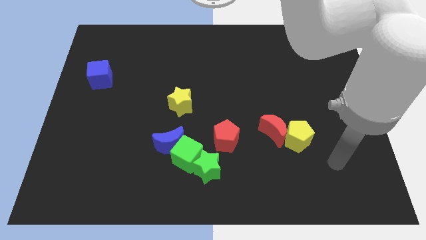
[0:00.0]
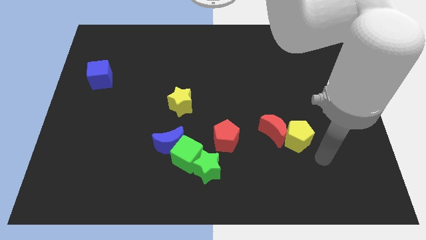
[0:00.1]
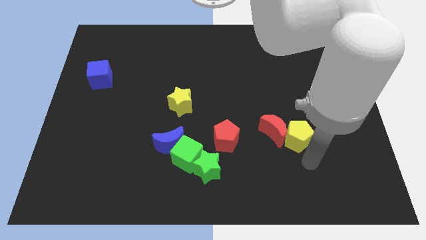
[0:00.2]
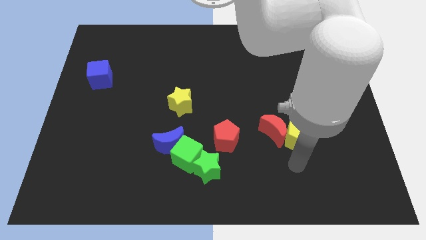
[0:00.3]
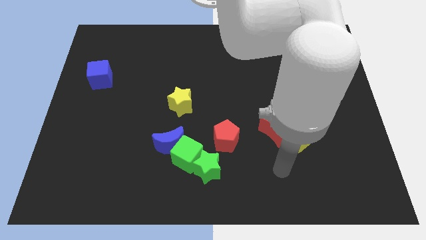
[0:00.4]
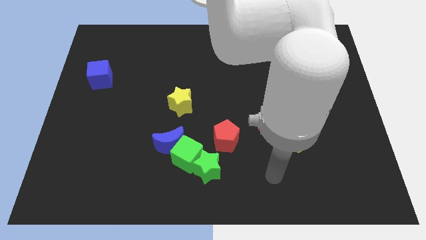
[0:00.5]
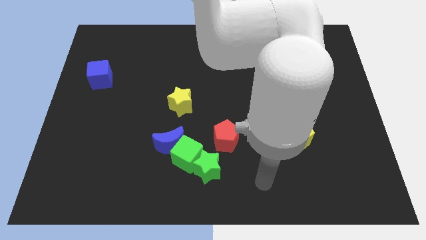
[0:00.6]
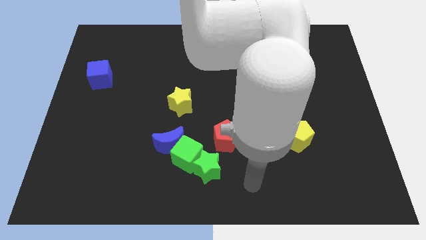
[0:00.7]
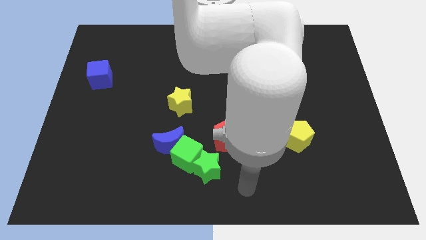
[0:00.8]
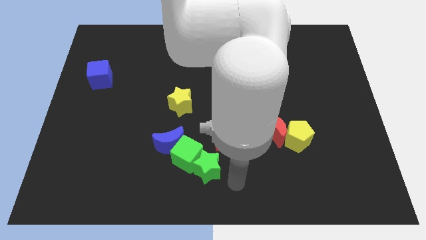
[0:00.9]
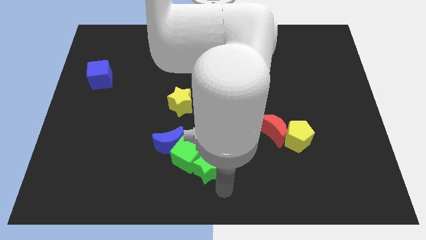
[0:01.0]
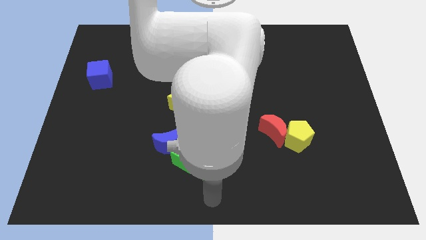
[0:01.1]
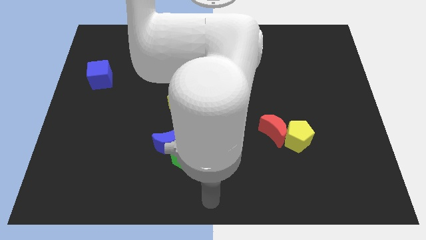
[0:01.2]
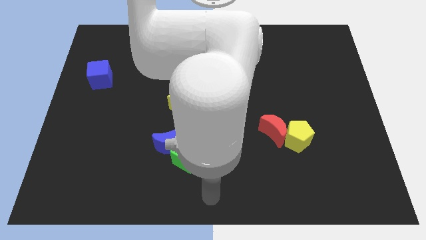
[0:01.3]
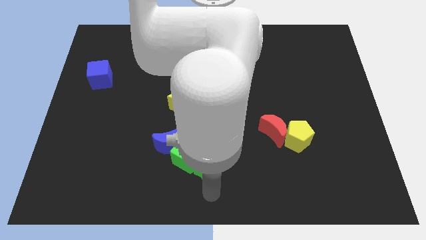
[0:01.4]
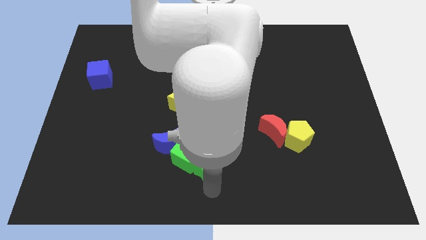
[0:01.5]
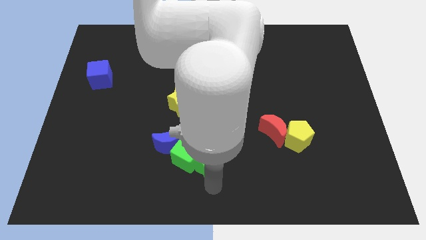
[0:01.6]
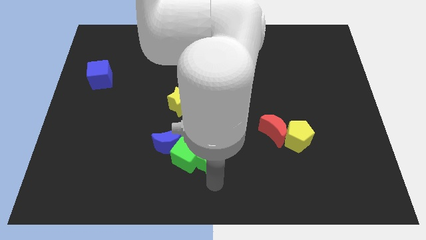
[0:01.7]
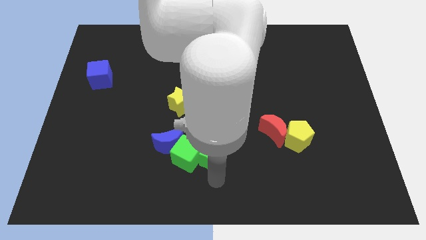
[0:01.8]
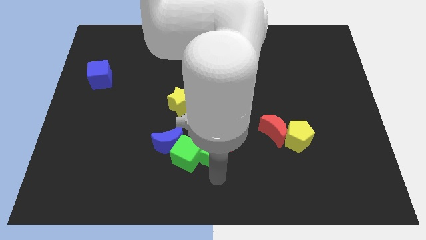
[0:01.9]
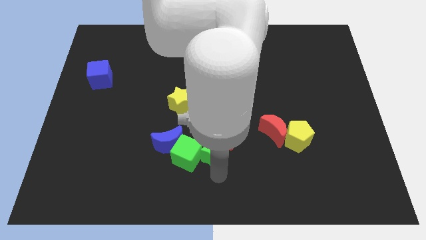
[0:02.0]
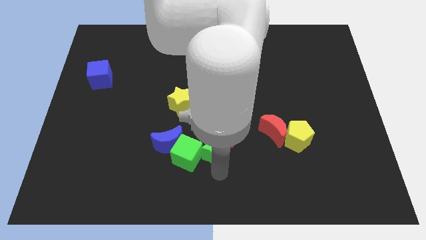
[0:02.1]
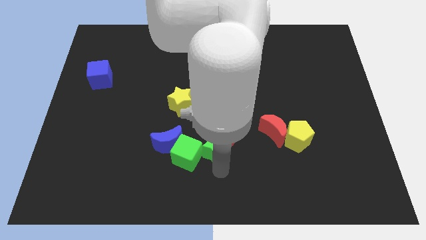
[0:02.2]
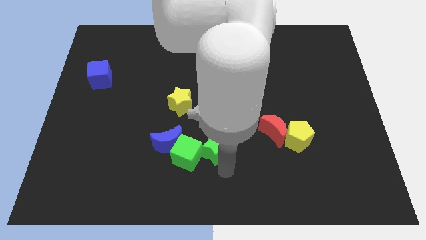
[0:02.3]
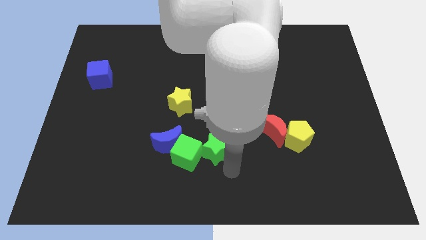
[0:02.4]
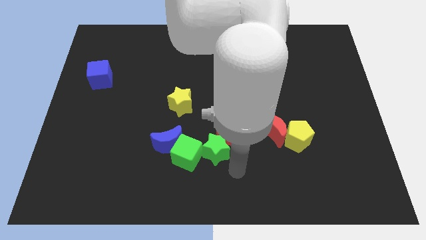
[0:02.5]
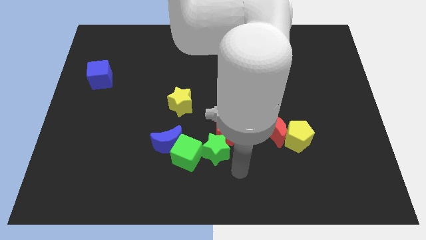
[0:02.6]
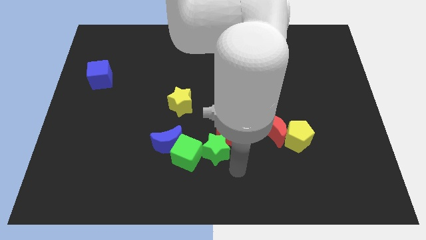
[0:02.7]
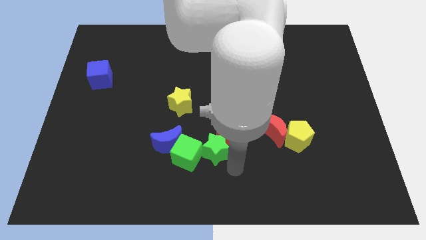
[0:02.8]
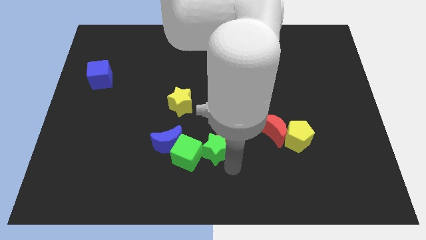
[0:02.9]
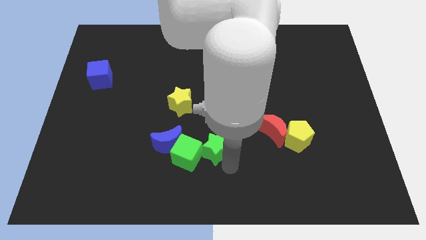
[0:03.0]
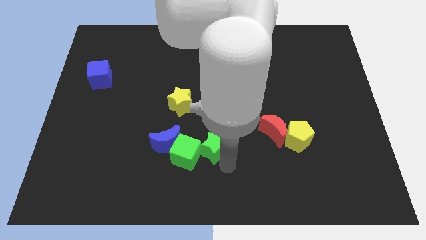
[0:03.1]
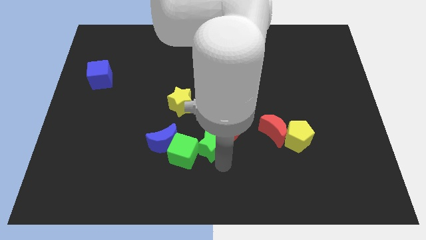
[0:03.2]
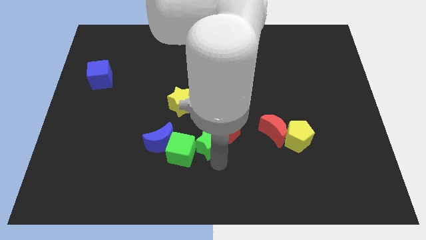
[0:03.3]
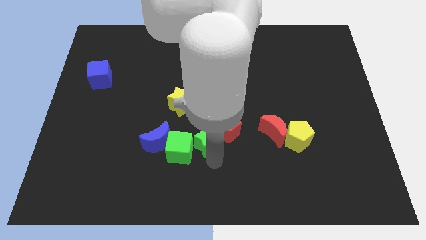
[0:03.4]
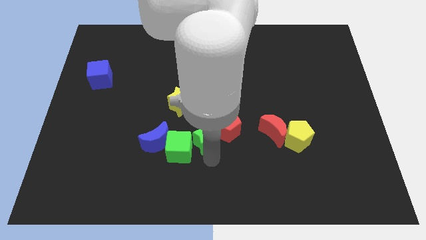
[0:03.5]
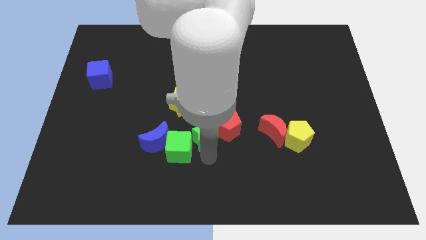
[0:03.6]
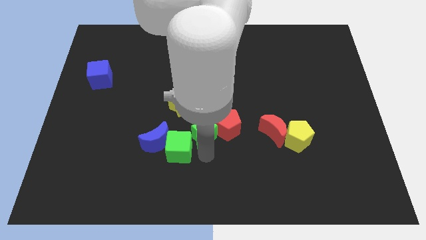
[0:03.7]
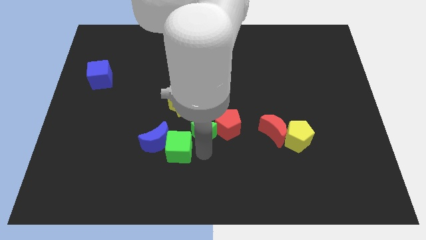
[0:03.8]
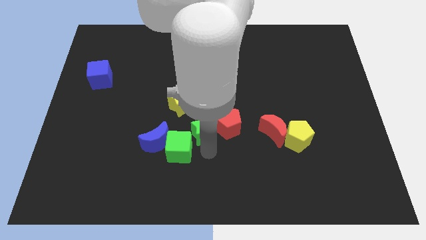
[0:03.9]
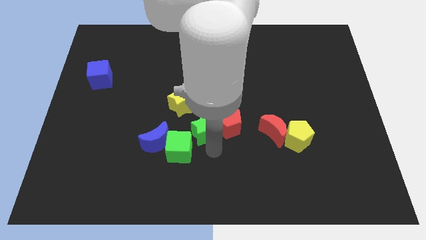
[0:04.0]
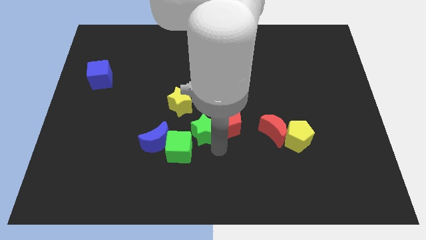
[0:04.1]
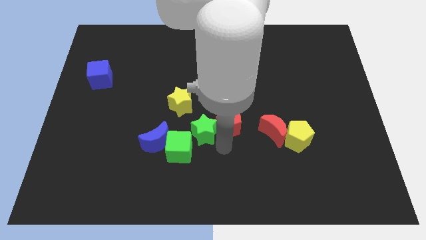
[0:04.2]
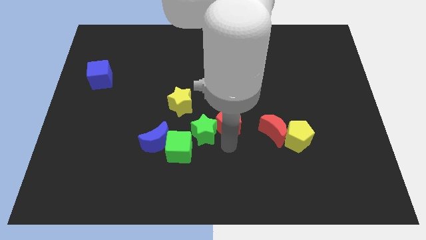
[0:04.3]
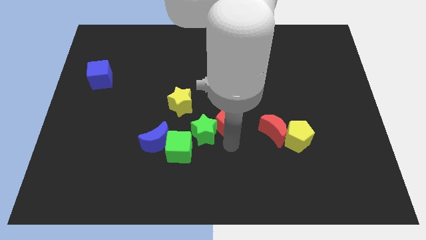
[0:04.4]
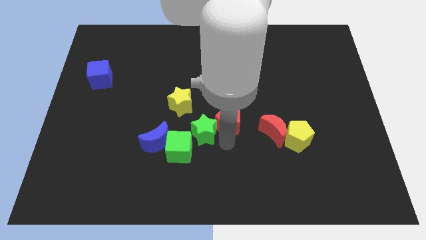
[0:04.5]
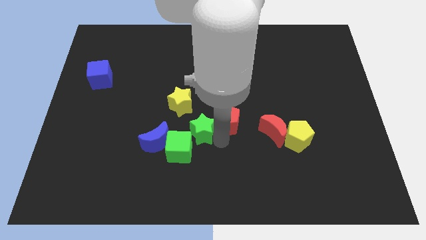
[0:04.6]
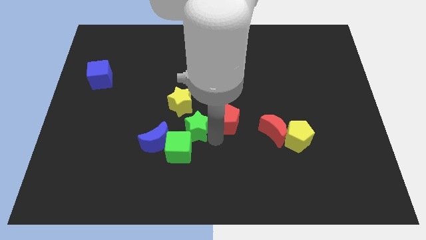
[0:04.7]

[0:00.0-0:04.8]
slightly move the green star diagonally up and to the left

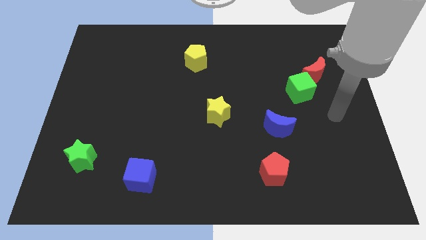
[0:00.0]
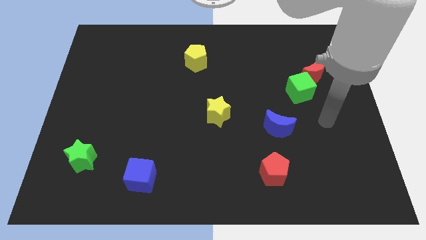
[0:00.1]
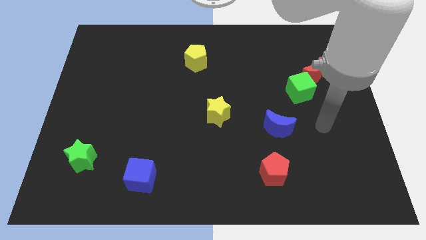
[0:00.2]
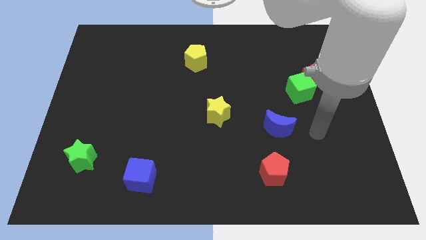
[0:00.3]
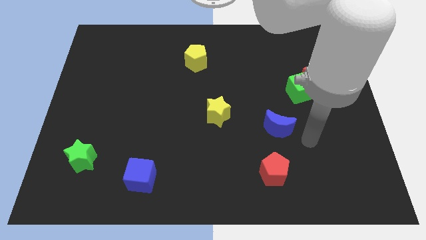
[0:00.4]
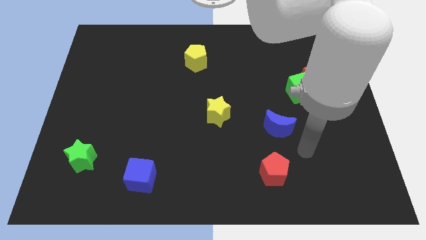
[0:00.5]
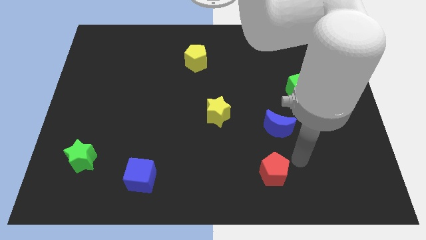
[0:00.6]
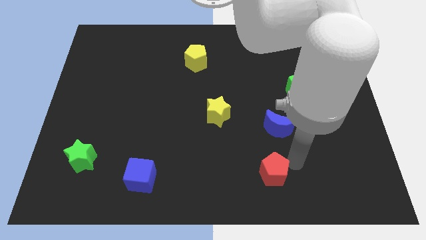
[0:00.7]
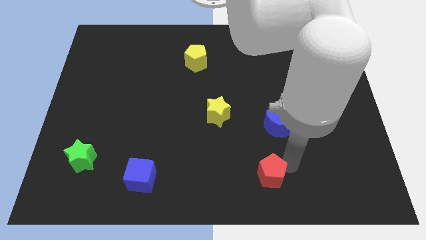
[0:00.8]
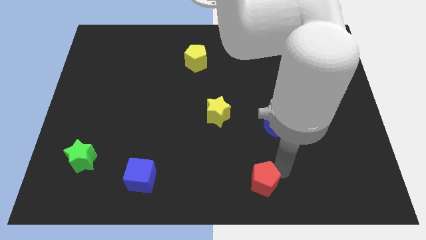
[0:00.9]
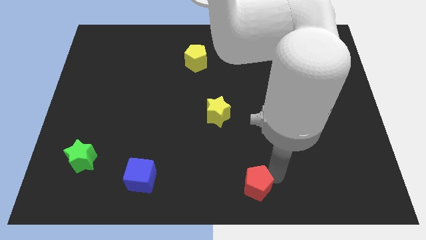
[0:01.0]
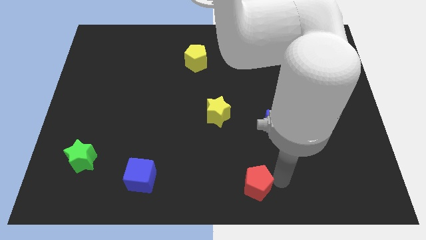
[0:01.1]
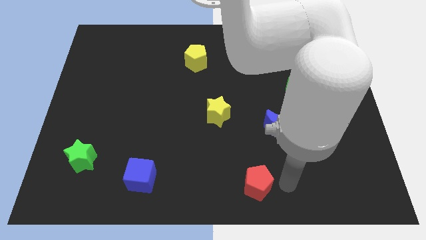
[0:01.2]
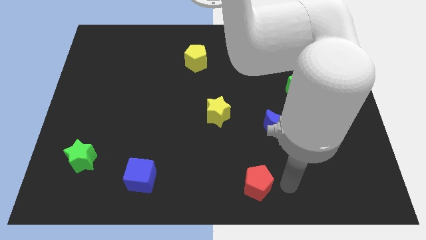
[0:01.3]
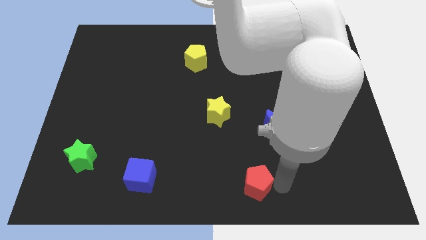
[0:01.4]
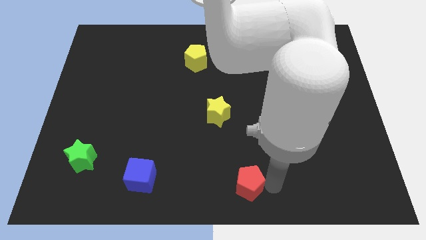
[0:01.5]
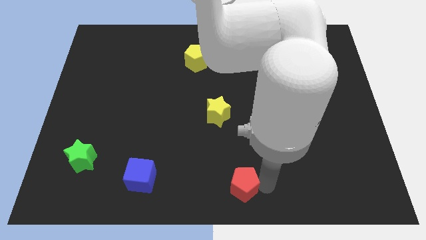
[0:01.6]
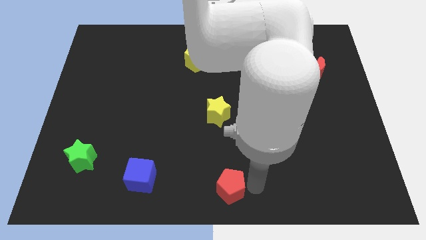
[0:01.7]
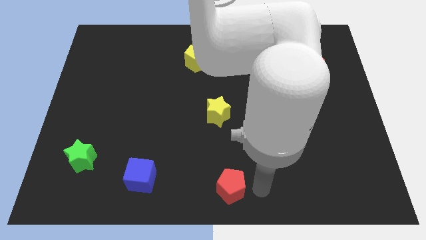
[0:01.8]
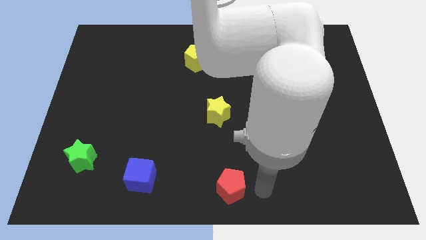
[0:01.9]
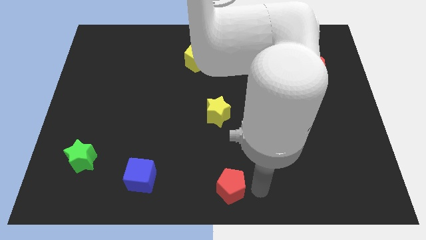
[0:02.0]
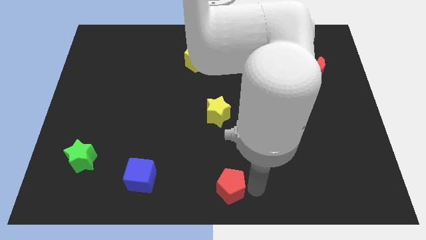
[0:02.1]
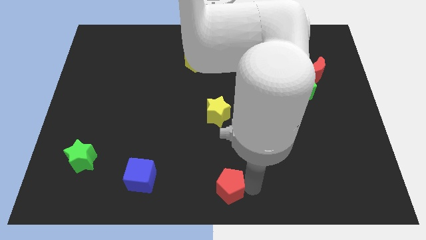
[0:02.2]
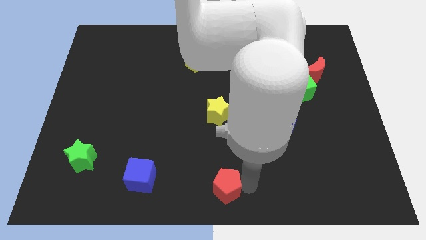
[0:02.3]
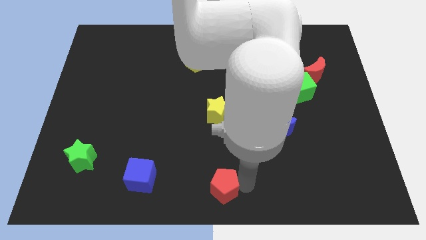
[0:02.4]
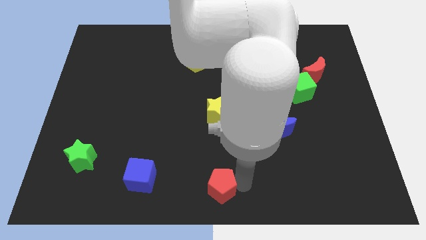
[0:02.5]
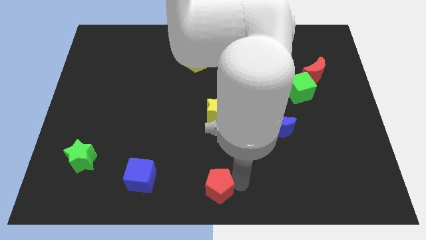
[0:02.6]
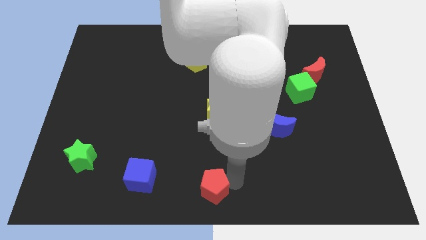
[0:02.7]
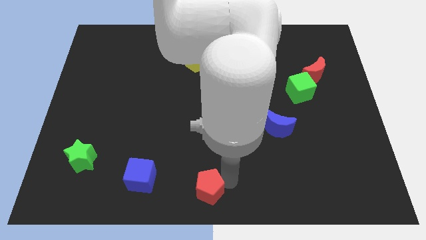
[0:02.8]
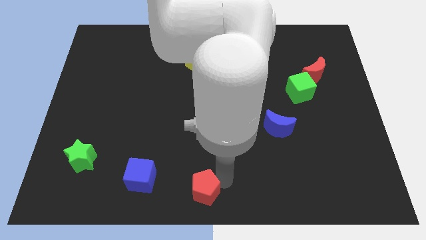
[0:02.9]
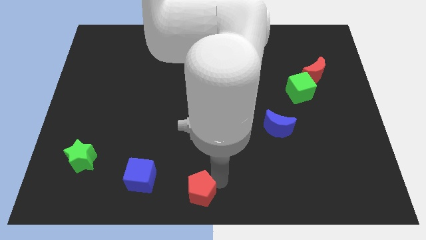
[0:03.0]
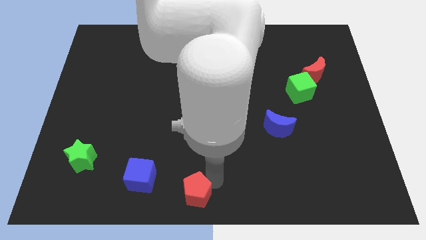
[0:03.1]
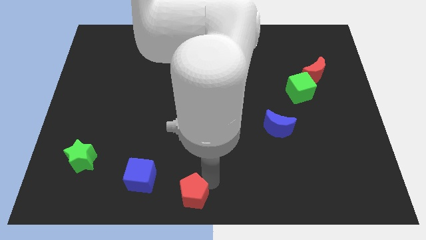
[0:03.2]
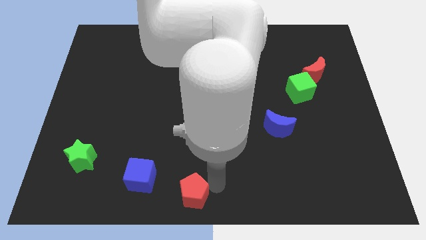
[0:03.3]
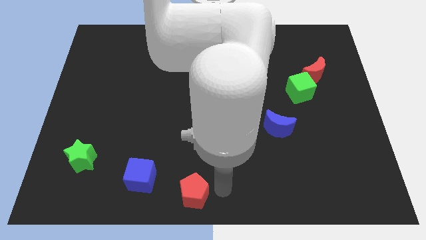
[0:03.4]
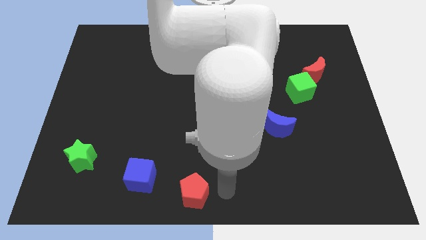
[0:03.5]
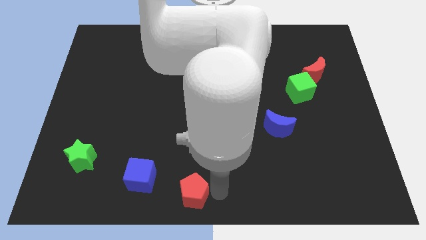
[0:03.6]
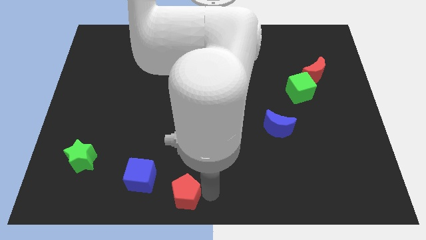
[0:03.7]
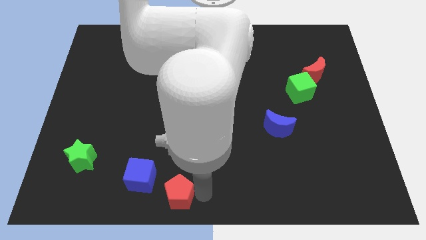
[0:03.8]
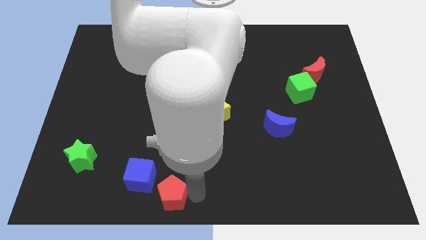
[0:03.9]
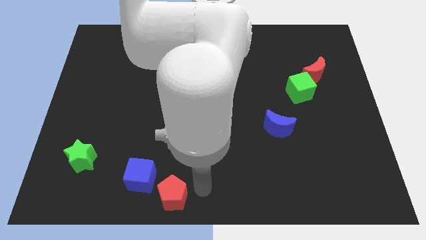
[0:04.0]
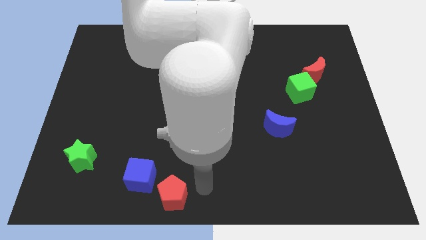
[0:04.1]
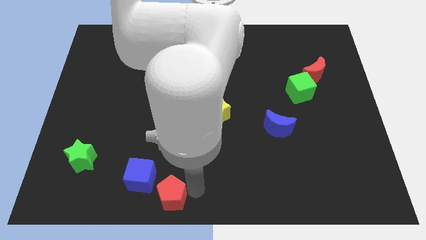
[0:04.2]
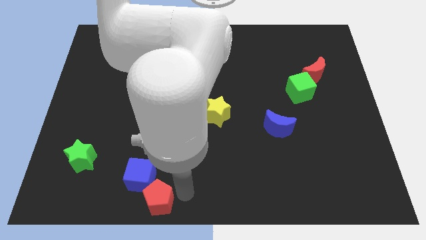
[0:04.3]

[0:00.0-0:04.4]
slide the red pentagon left
